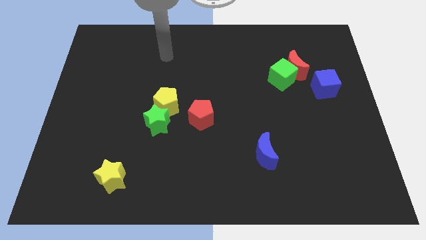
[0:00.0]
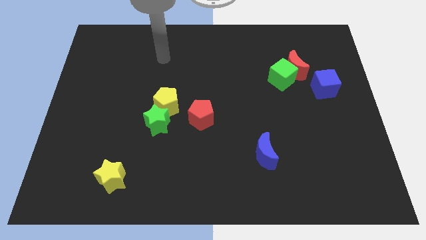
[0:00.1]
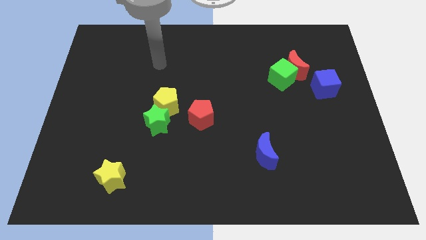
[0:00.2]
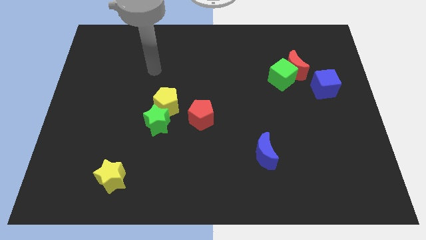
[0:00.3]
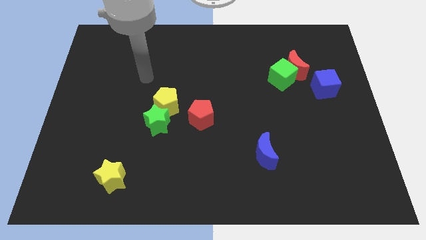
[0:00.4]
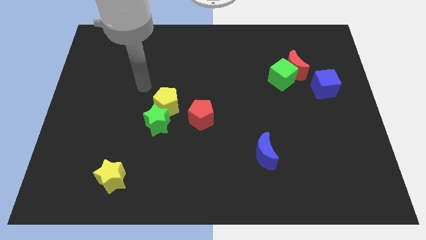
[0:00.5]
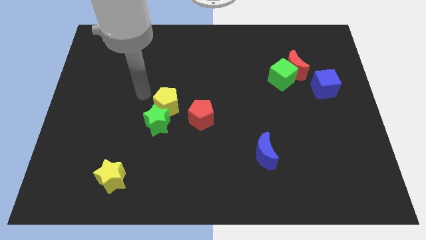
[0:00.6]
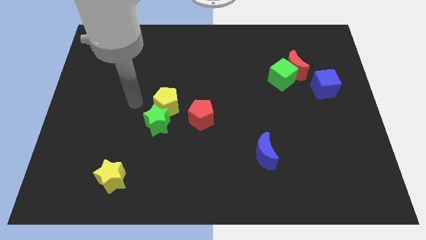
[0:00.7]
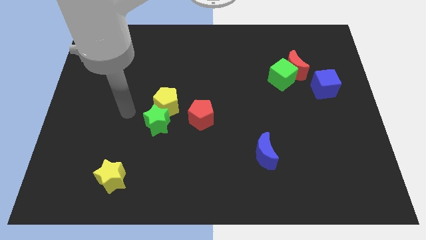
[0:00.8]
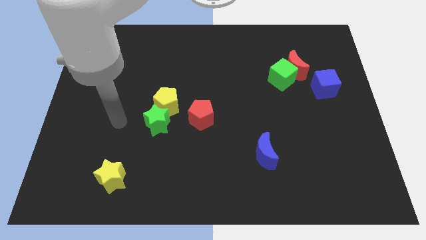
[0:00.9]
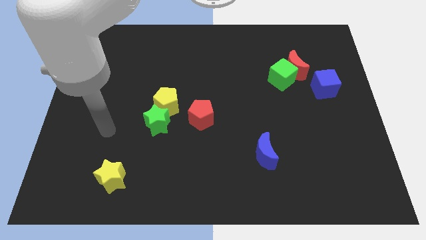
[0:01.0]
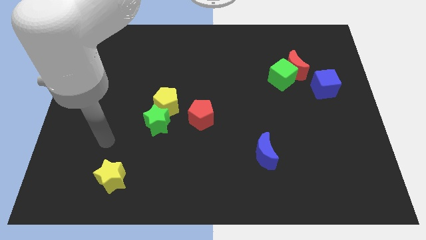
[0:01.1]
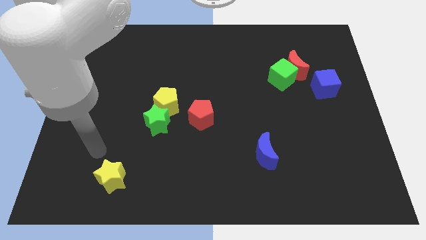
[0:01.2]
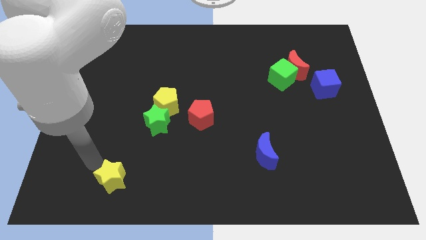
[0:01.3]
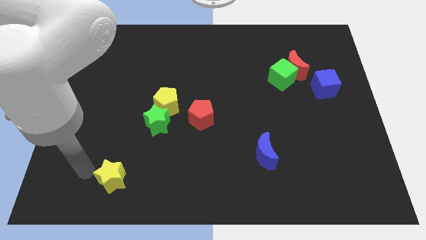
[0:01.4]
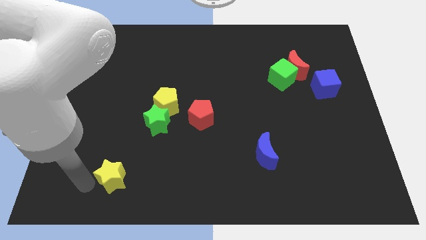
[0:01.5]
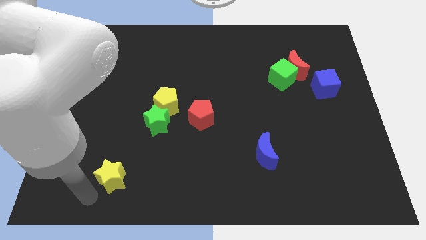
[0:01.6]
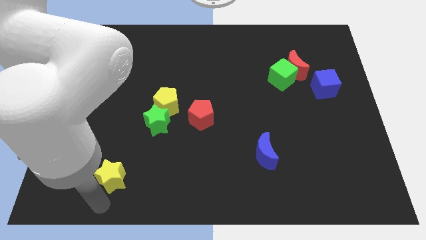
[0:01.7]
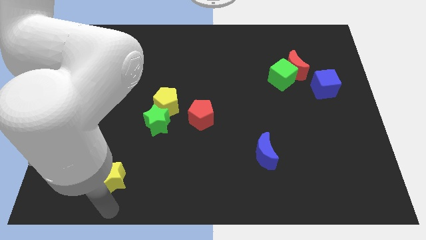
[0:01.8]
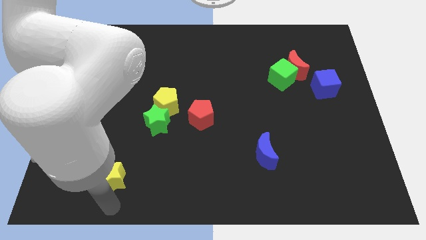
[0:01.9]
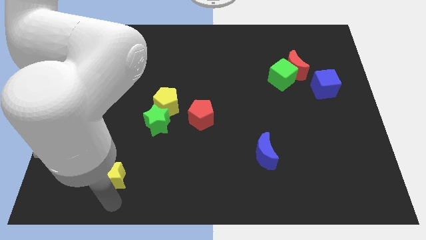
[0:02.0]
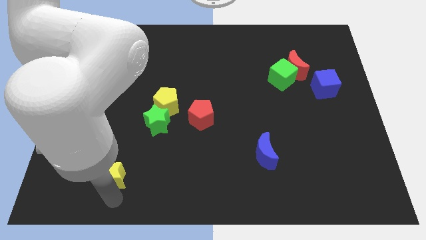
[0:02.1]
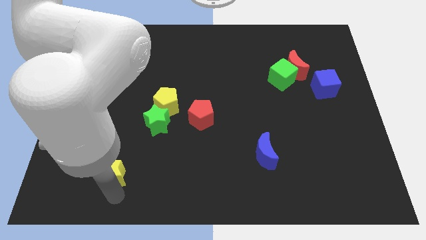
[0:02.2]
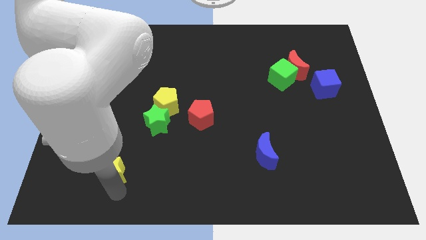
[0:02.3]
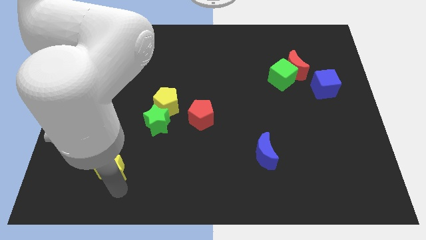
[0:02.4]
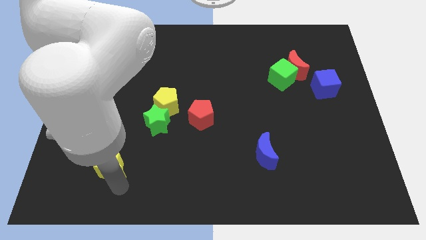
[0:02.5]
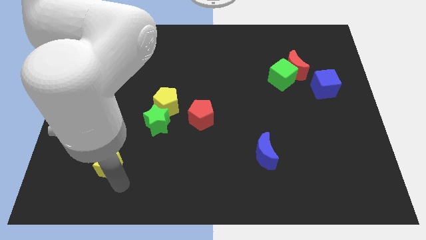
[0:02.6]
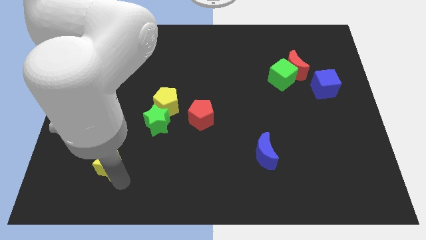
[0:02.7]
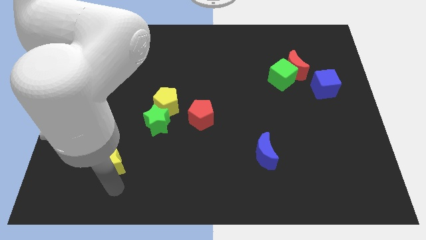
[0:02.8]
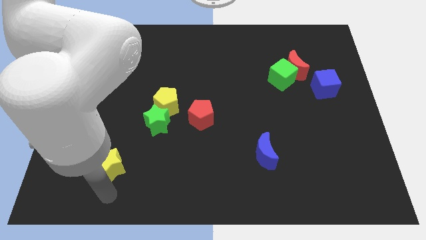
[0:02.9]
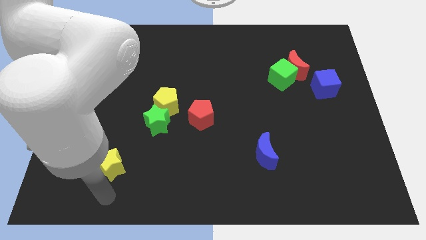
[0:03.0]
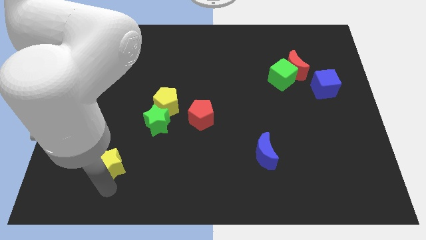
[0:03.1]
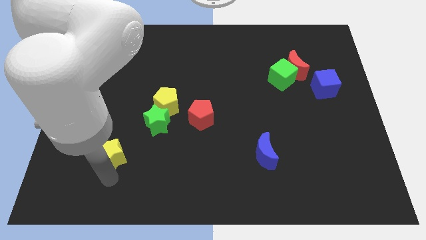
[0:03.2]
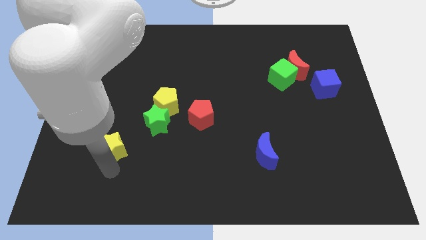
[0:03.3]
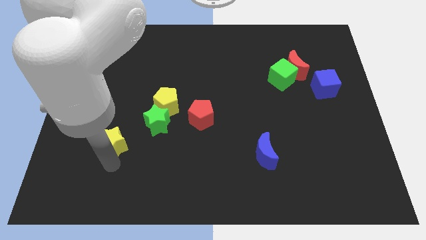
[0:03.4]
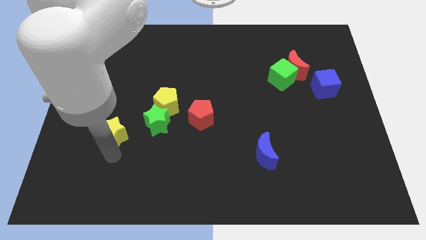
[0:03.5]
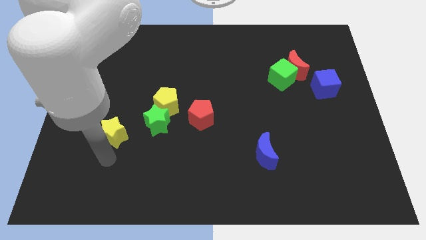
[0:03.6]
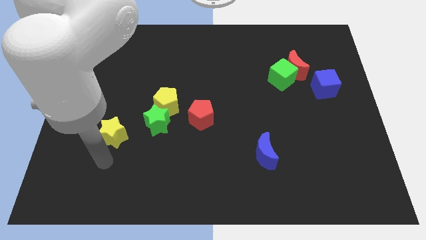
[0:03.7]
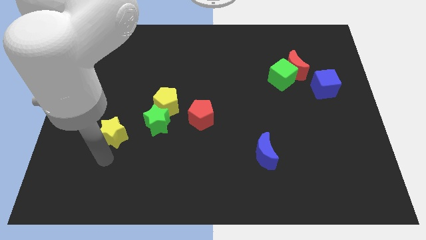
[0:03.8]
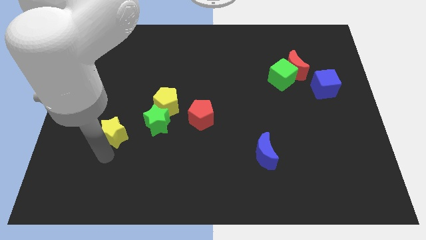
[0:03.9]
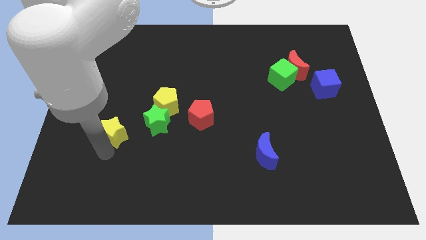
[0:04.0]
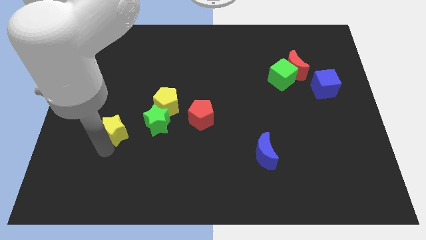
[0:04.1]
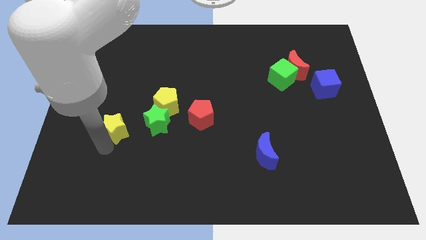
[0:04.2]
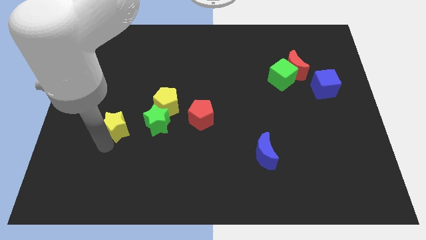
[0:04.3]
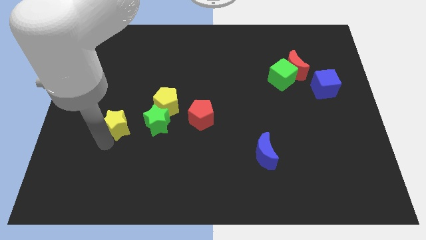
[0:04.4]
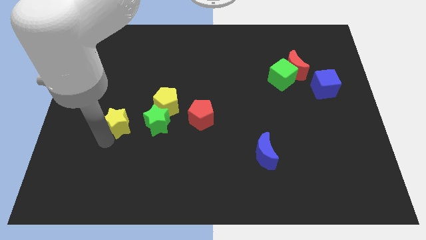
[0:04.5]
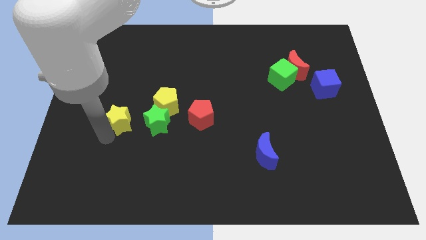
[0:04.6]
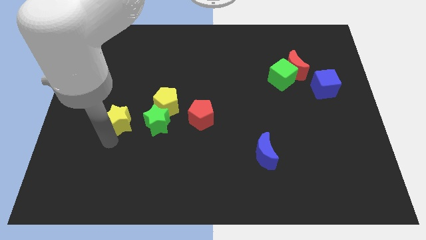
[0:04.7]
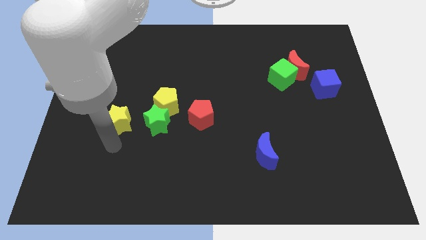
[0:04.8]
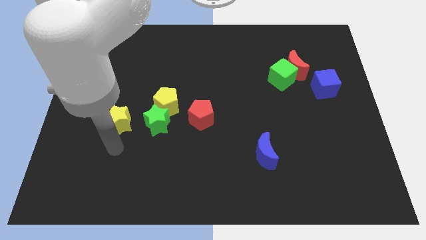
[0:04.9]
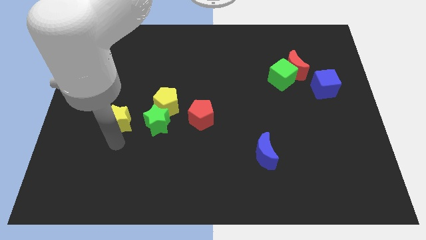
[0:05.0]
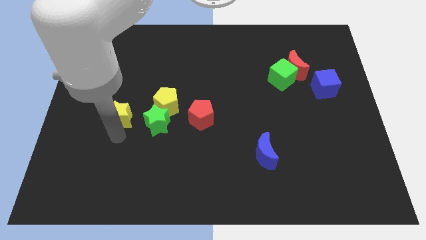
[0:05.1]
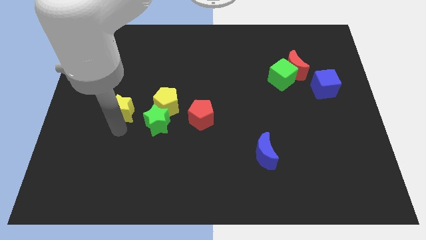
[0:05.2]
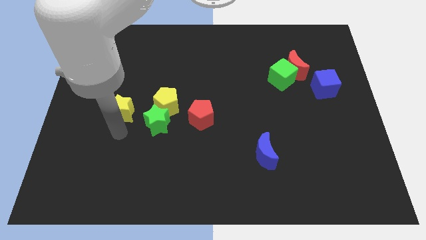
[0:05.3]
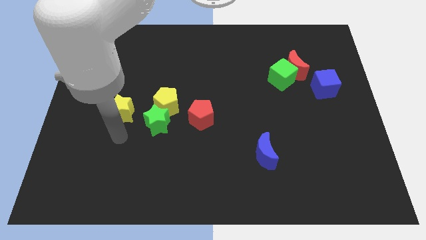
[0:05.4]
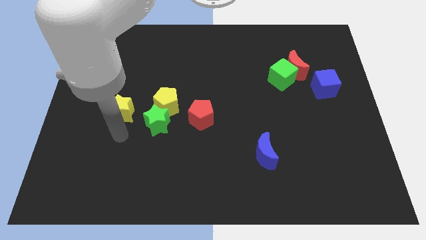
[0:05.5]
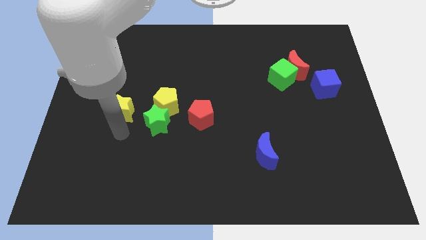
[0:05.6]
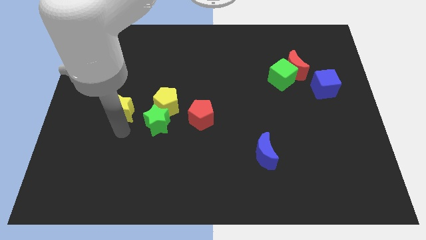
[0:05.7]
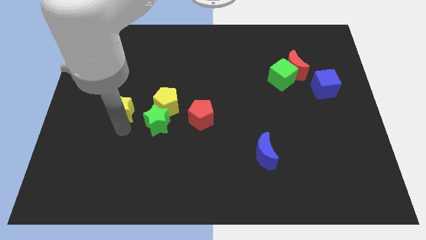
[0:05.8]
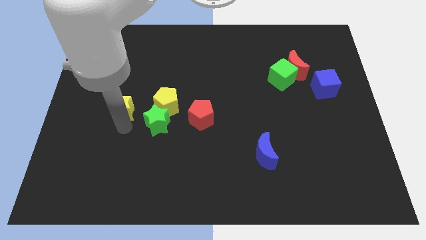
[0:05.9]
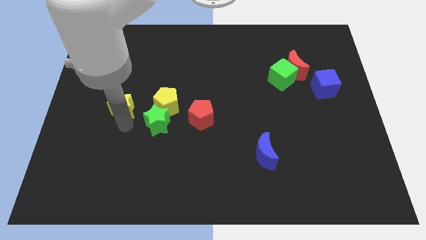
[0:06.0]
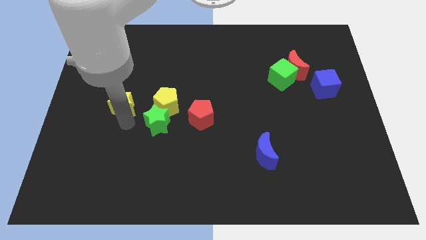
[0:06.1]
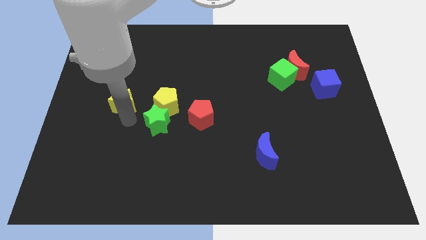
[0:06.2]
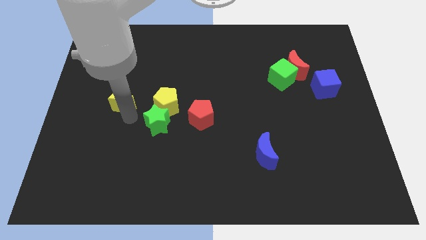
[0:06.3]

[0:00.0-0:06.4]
slide the yellow star upwards

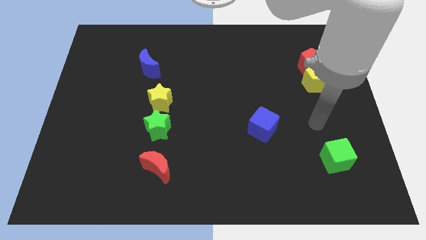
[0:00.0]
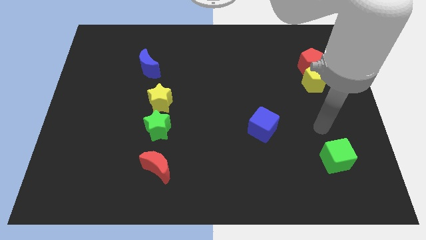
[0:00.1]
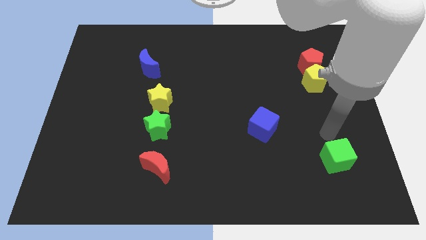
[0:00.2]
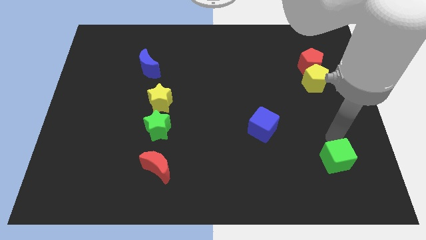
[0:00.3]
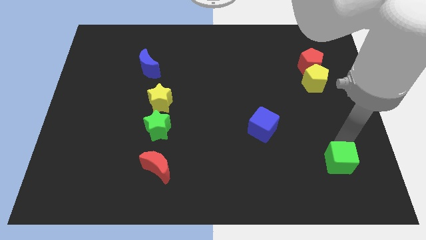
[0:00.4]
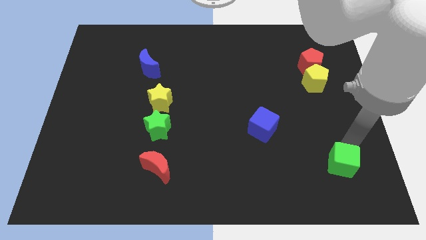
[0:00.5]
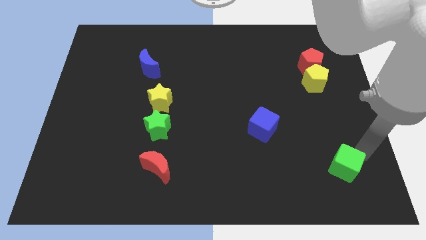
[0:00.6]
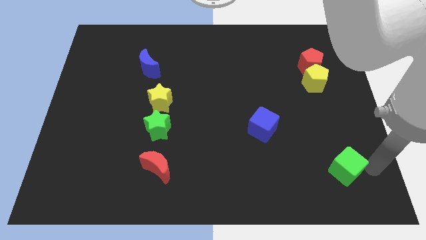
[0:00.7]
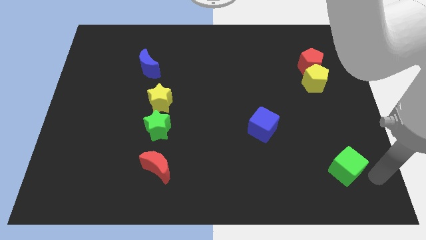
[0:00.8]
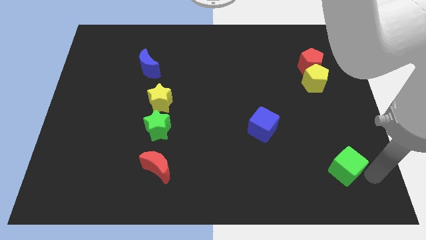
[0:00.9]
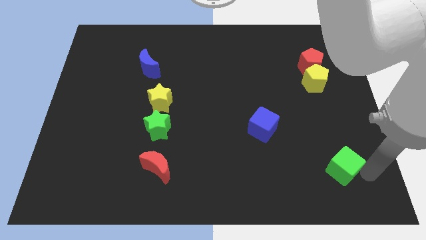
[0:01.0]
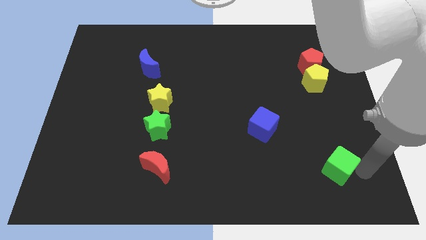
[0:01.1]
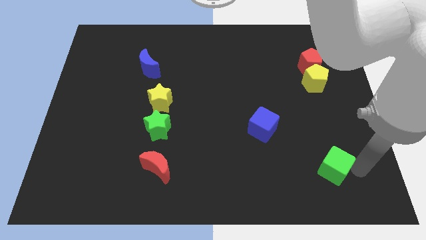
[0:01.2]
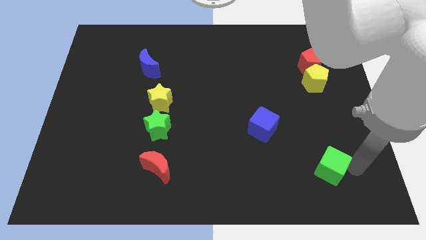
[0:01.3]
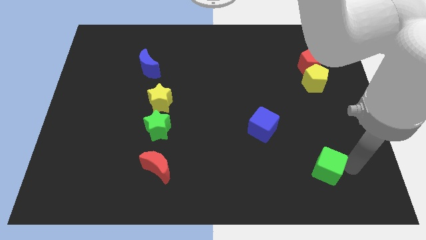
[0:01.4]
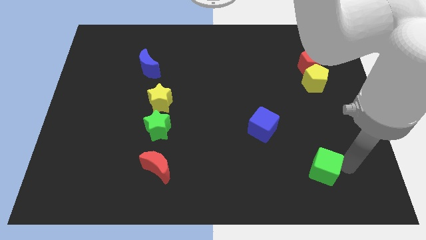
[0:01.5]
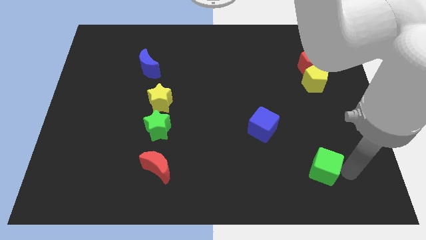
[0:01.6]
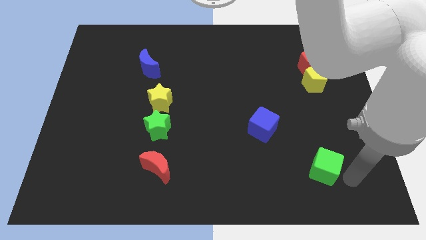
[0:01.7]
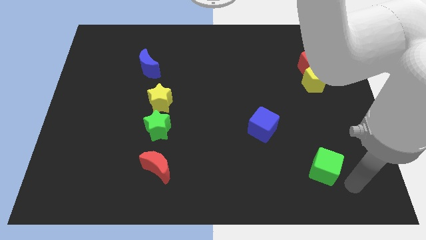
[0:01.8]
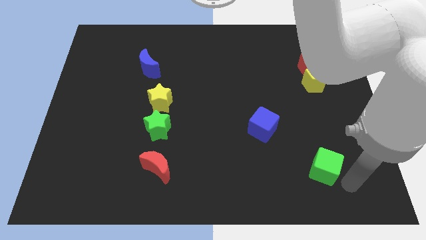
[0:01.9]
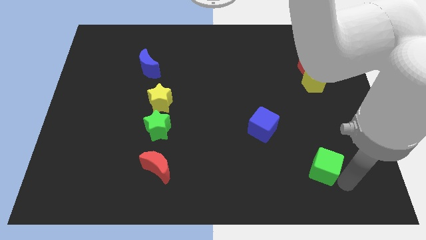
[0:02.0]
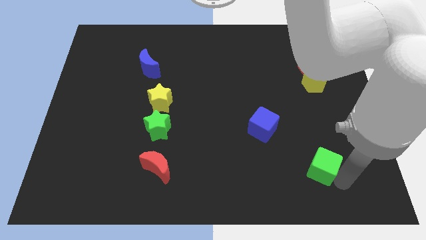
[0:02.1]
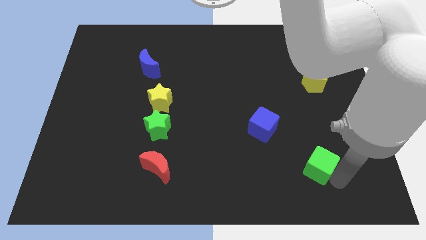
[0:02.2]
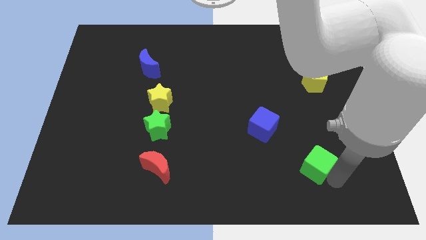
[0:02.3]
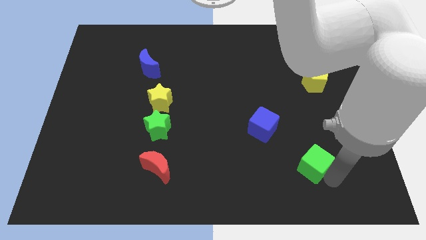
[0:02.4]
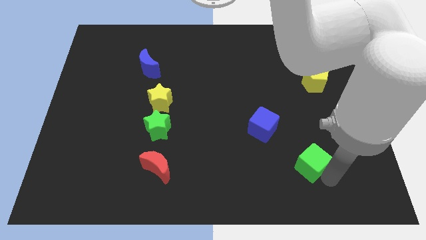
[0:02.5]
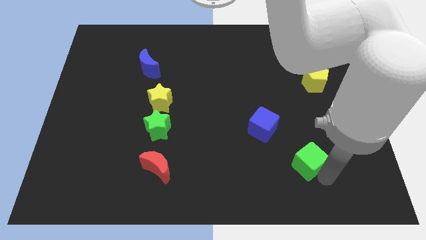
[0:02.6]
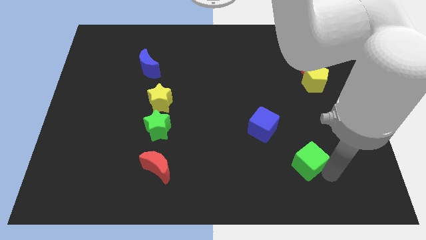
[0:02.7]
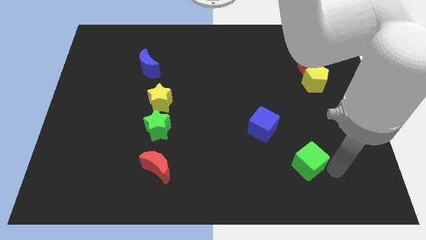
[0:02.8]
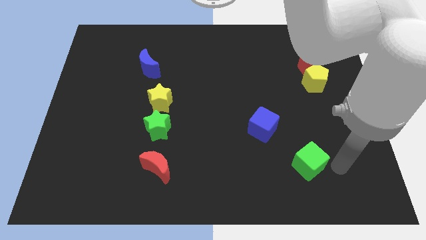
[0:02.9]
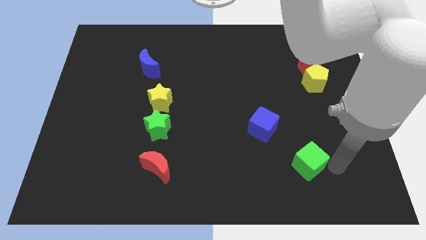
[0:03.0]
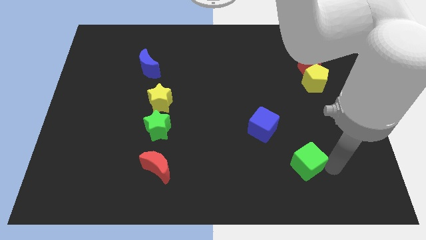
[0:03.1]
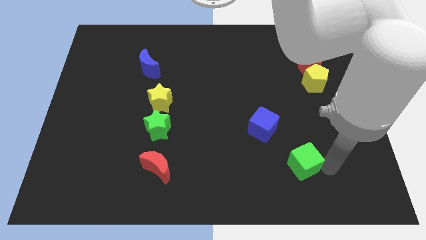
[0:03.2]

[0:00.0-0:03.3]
slide the green cube somewhat left
